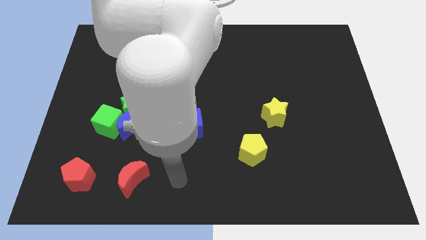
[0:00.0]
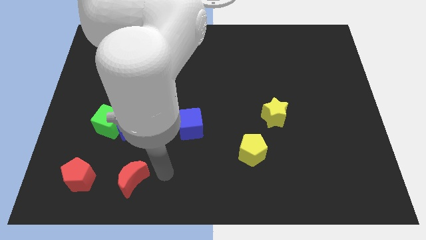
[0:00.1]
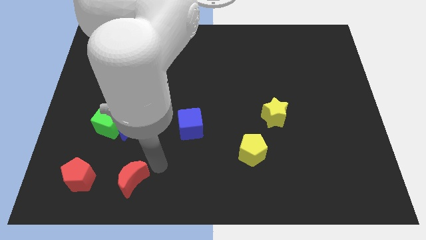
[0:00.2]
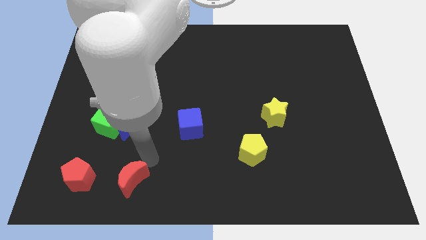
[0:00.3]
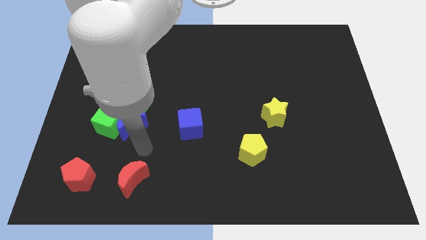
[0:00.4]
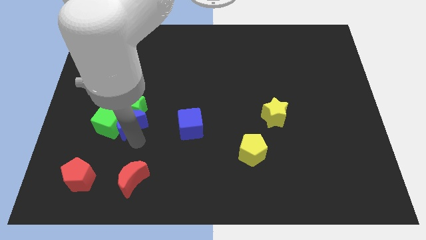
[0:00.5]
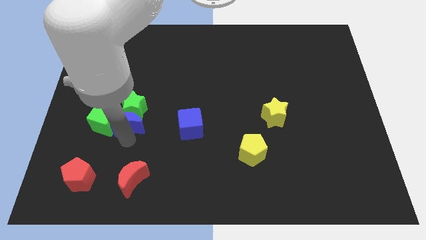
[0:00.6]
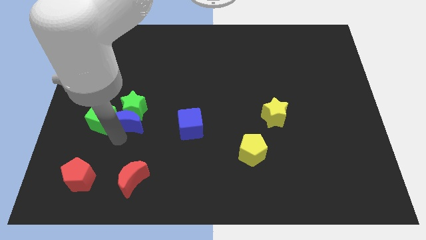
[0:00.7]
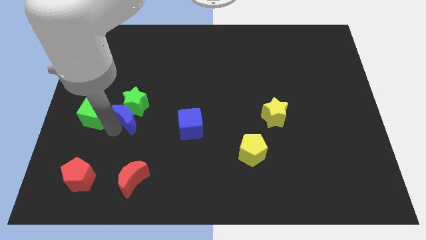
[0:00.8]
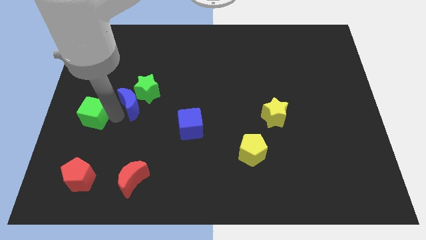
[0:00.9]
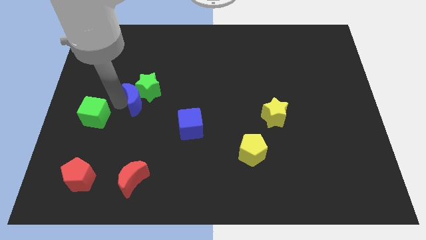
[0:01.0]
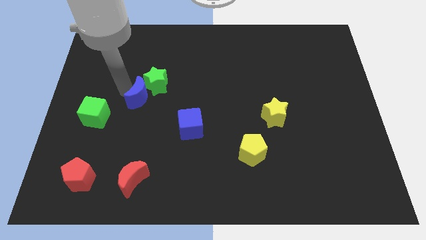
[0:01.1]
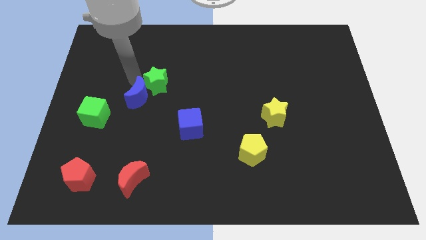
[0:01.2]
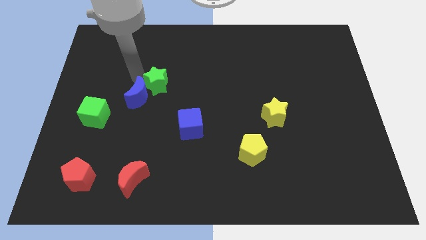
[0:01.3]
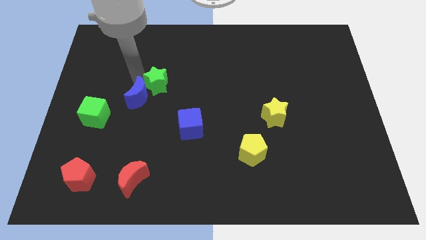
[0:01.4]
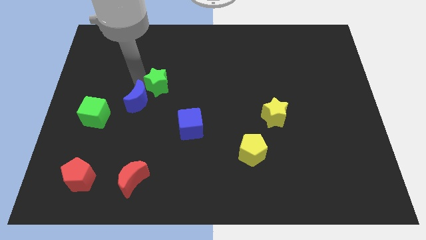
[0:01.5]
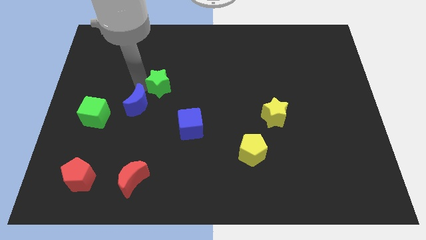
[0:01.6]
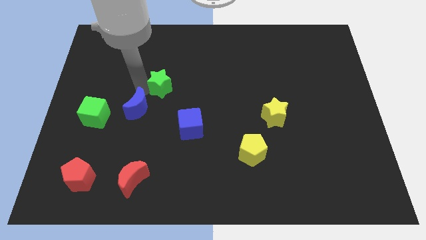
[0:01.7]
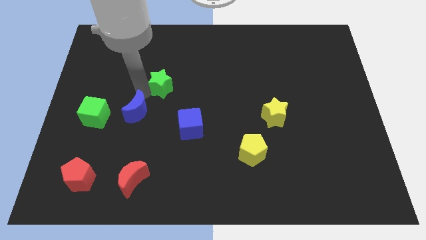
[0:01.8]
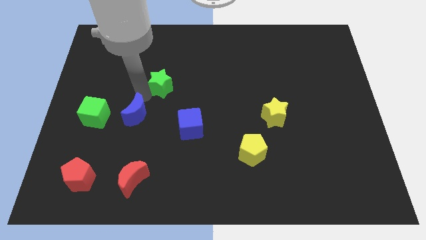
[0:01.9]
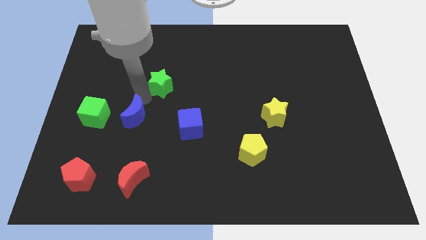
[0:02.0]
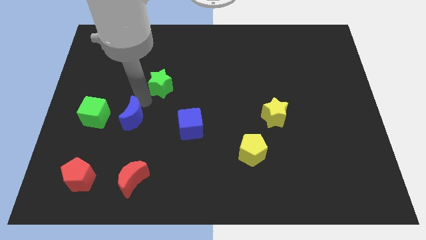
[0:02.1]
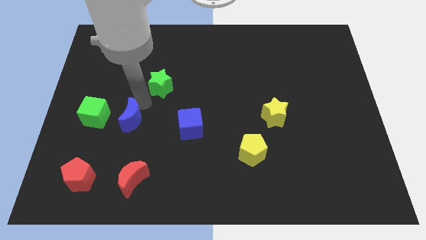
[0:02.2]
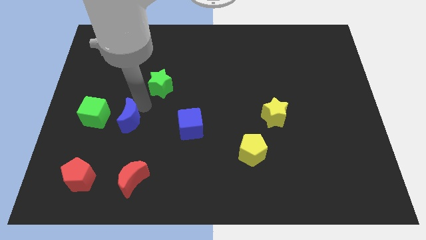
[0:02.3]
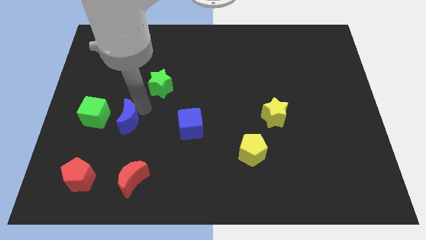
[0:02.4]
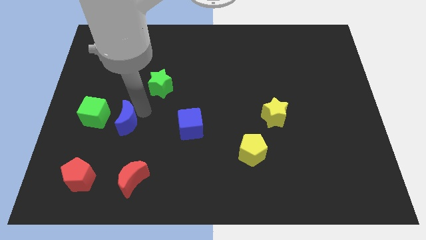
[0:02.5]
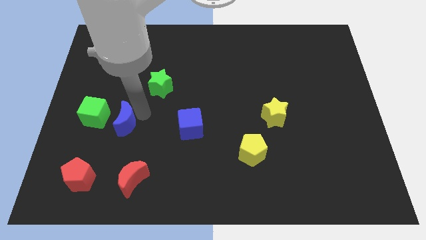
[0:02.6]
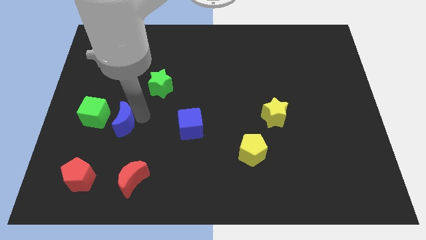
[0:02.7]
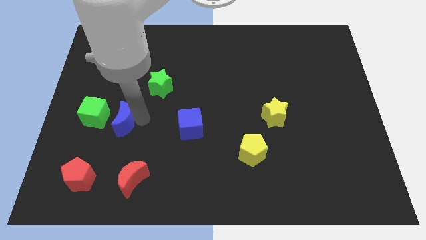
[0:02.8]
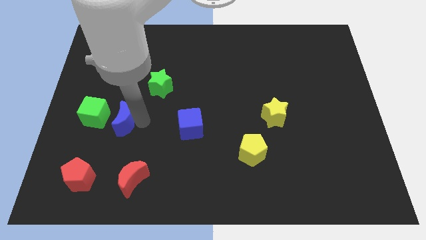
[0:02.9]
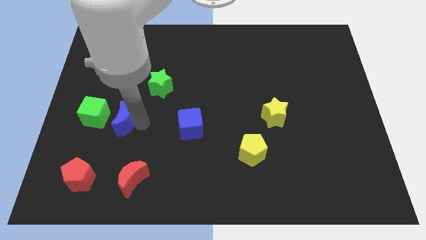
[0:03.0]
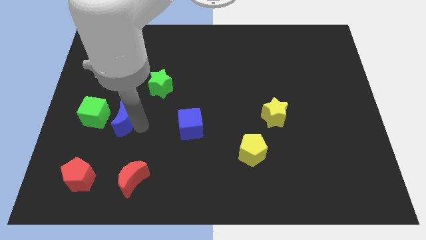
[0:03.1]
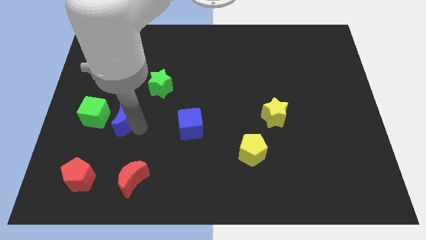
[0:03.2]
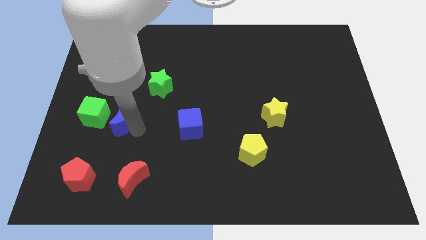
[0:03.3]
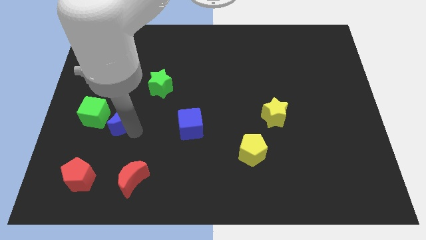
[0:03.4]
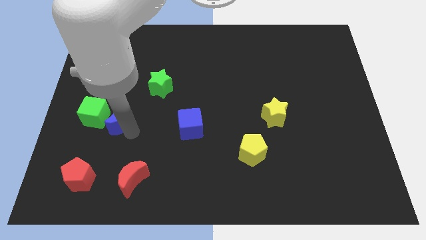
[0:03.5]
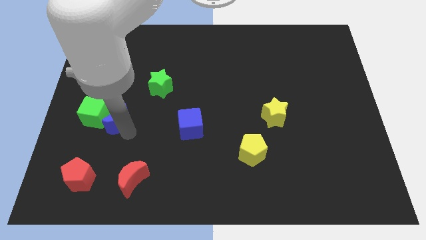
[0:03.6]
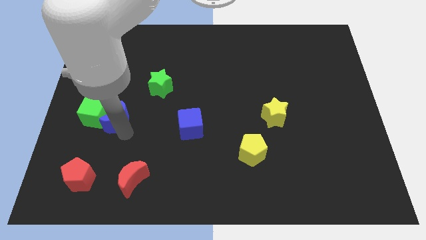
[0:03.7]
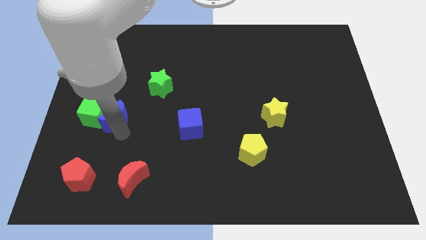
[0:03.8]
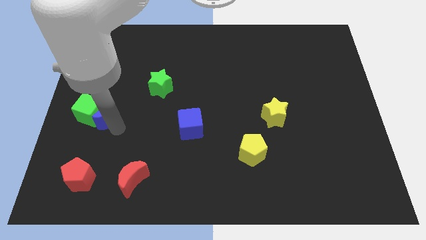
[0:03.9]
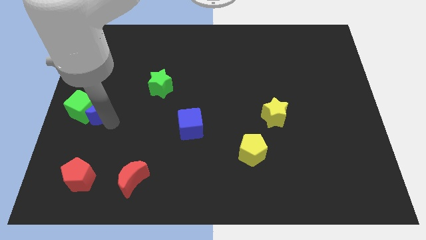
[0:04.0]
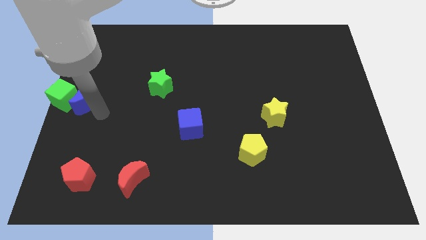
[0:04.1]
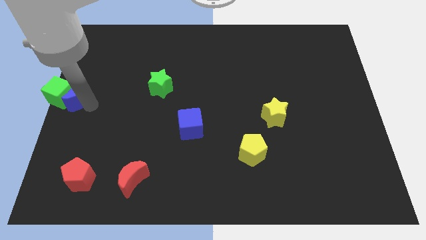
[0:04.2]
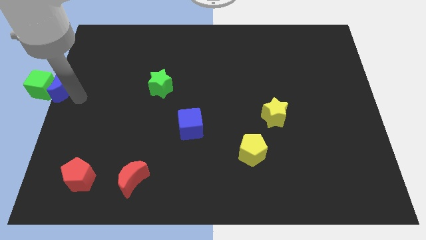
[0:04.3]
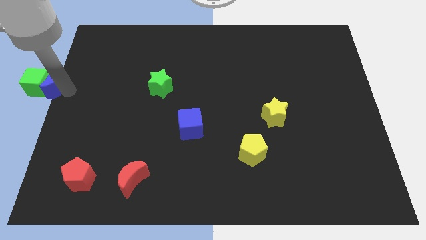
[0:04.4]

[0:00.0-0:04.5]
move the blue moon away from the green star and green cube

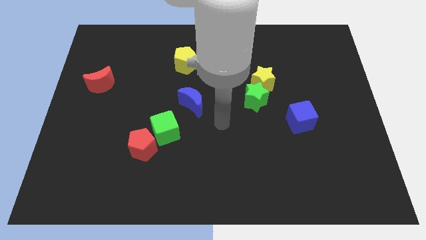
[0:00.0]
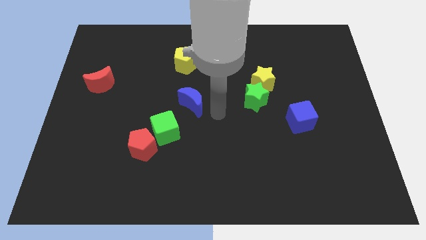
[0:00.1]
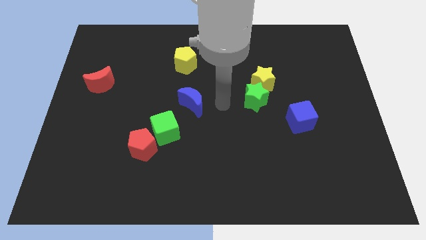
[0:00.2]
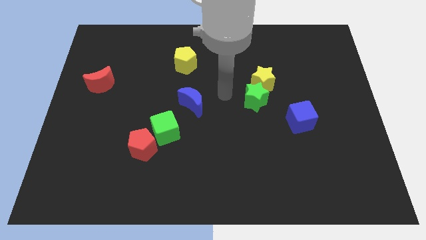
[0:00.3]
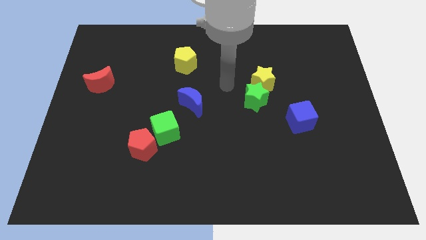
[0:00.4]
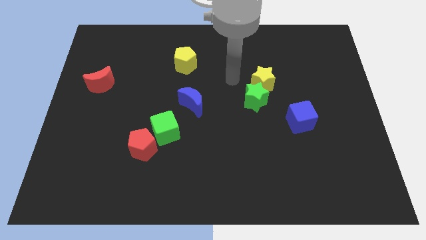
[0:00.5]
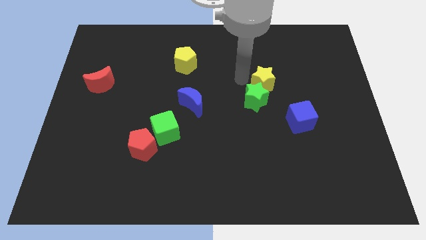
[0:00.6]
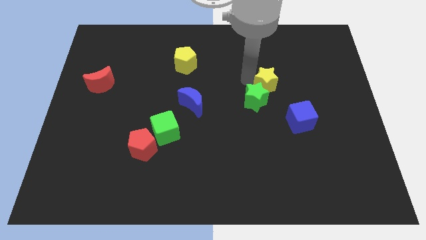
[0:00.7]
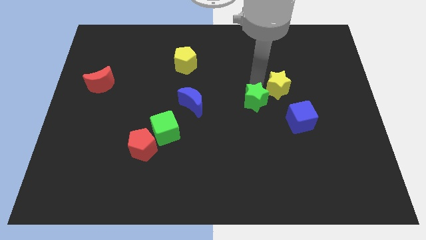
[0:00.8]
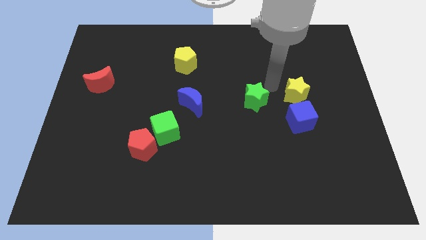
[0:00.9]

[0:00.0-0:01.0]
pull the green star apart from the yellow star

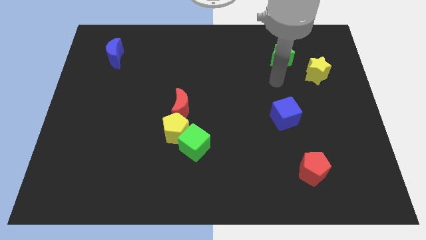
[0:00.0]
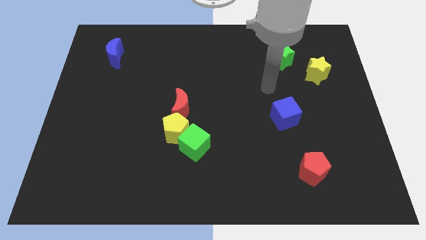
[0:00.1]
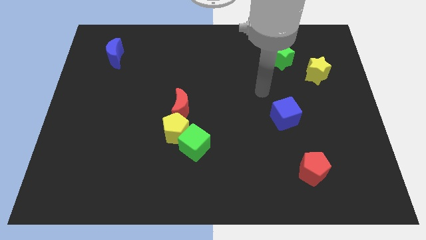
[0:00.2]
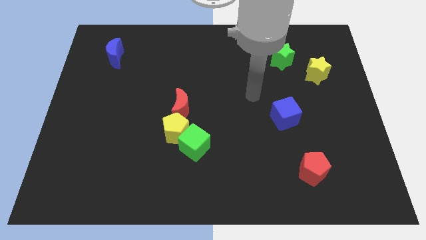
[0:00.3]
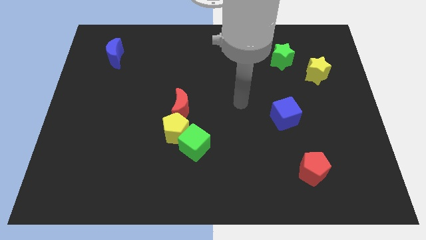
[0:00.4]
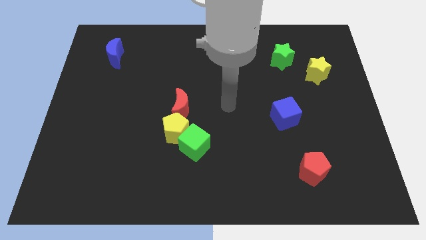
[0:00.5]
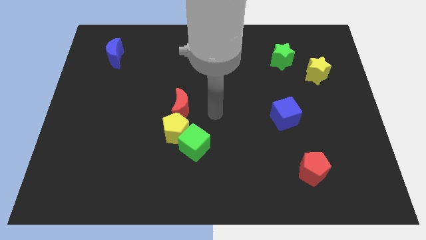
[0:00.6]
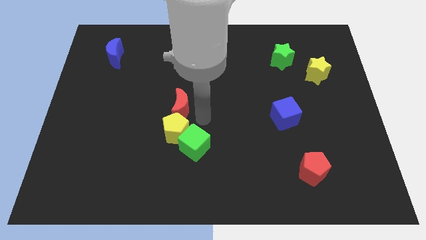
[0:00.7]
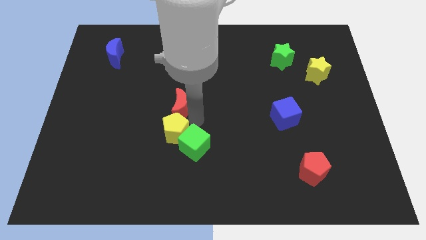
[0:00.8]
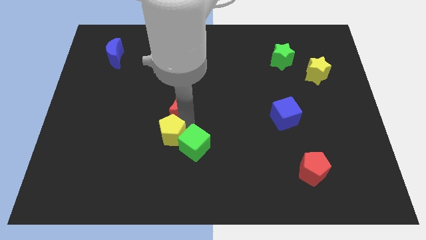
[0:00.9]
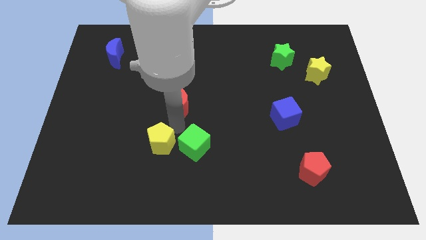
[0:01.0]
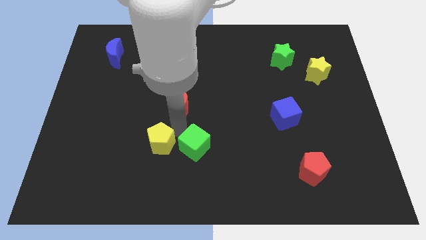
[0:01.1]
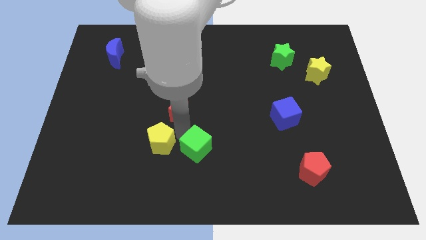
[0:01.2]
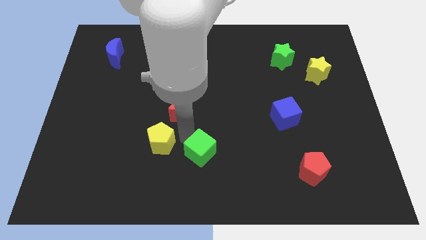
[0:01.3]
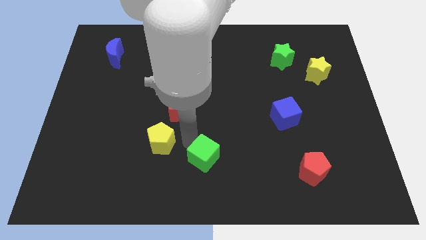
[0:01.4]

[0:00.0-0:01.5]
move the green cube away from the yellow pentagon

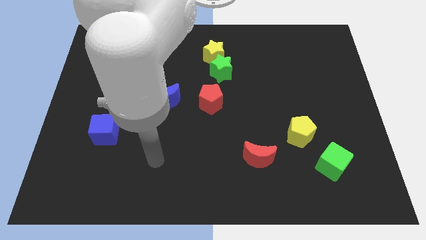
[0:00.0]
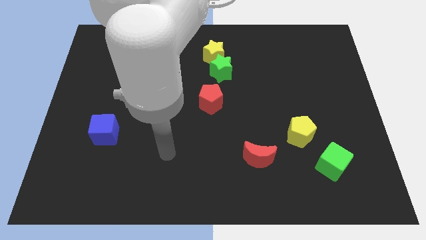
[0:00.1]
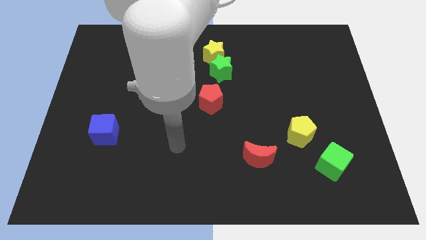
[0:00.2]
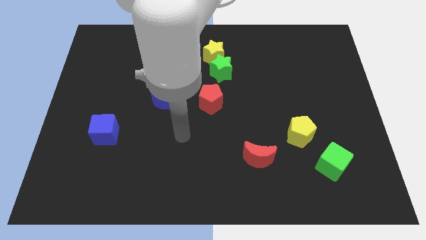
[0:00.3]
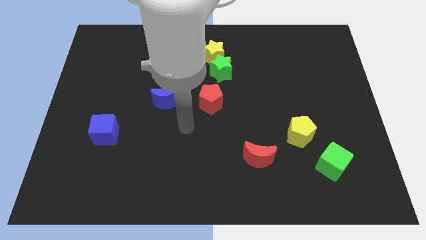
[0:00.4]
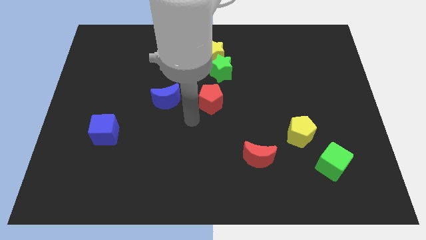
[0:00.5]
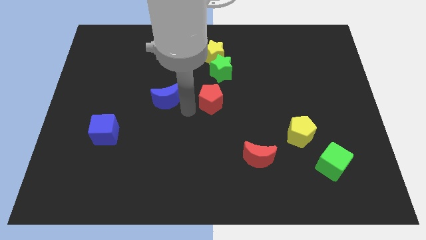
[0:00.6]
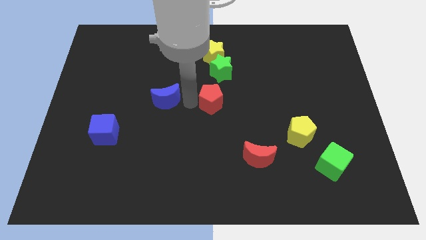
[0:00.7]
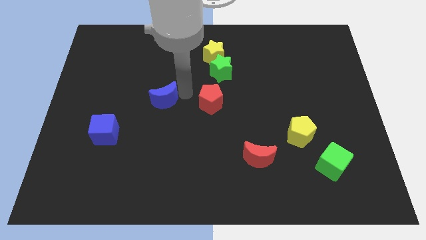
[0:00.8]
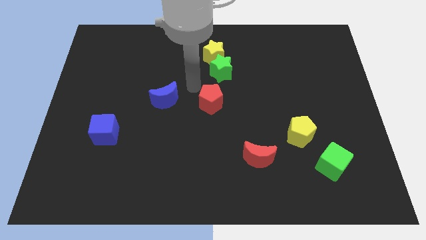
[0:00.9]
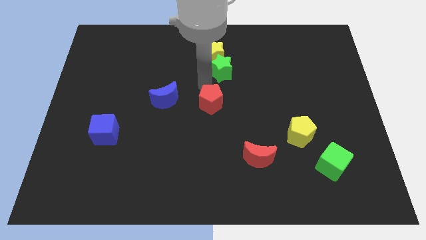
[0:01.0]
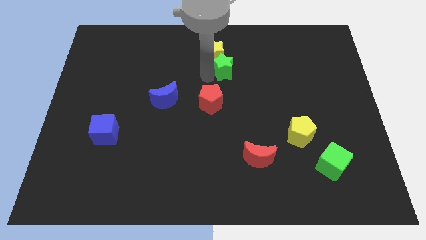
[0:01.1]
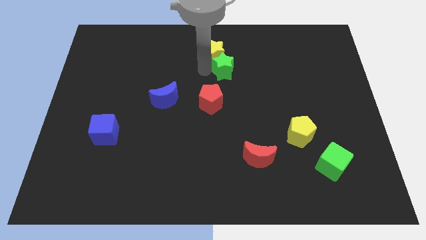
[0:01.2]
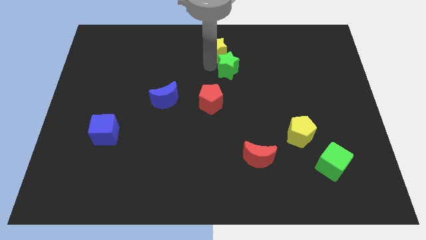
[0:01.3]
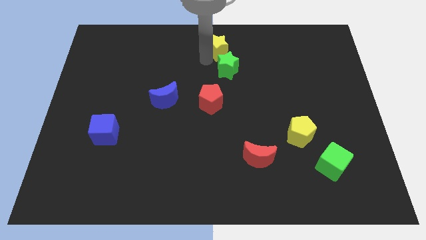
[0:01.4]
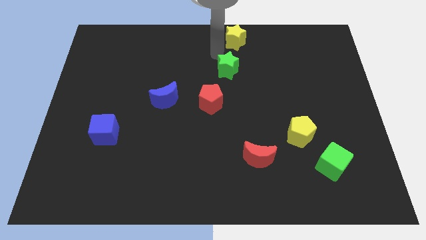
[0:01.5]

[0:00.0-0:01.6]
move the green star away from the yellow star

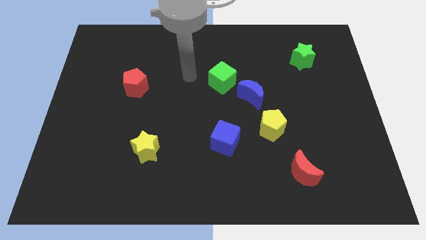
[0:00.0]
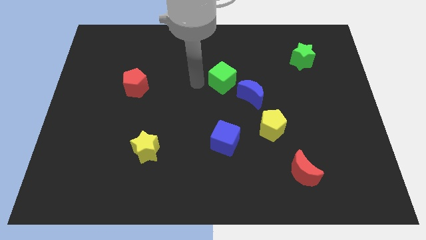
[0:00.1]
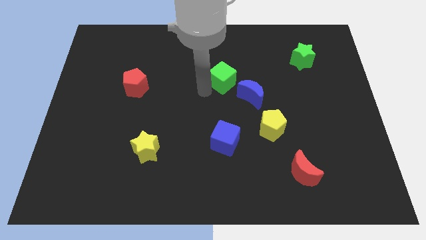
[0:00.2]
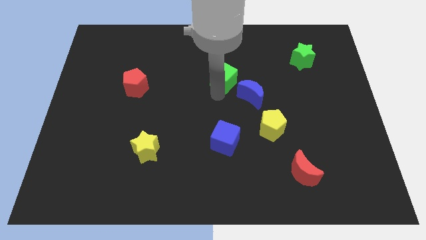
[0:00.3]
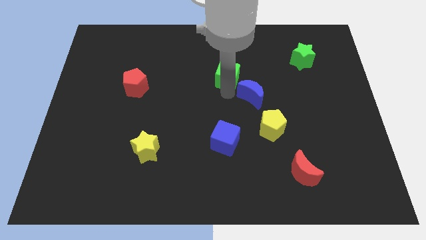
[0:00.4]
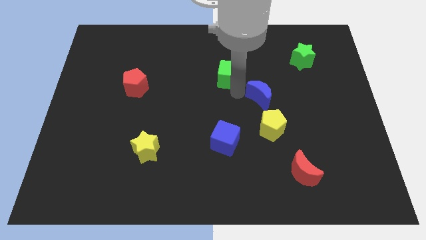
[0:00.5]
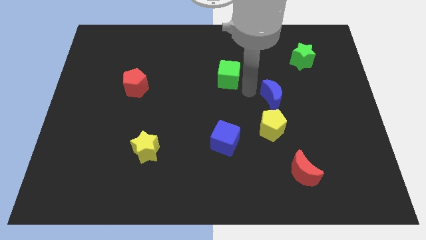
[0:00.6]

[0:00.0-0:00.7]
pull the green cube apart from the blue moon
